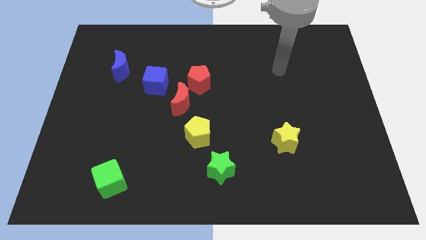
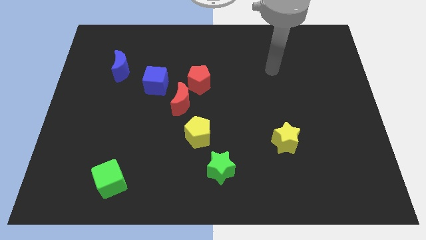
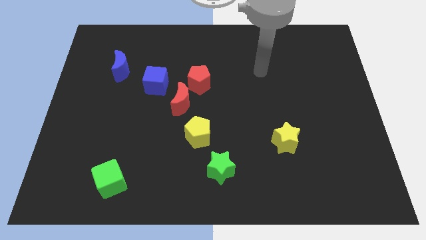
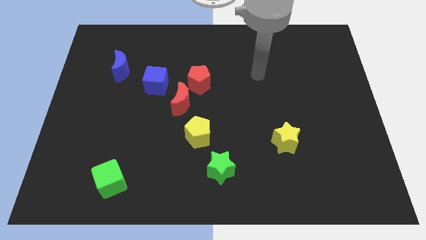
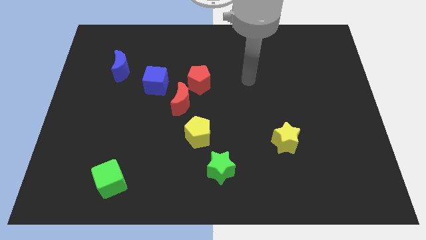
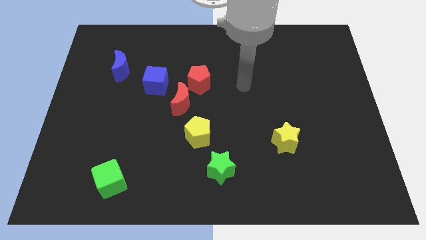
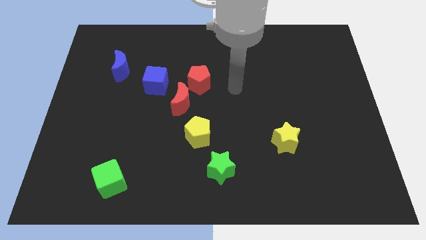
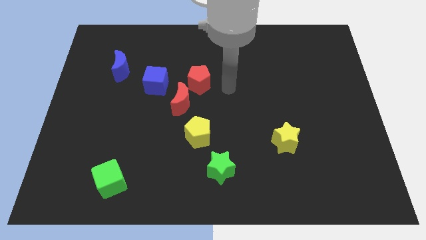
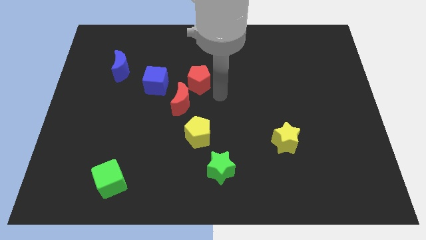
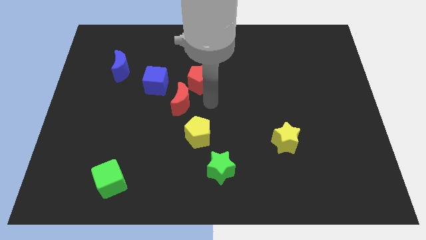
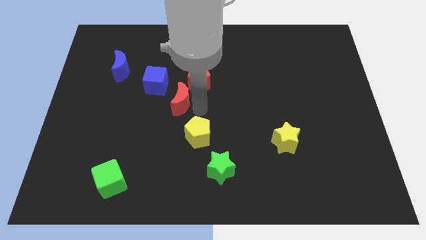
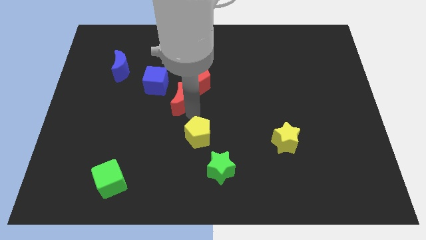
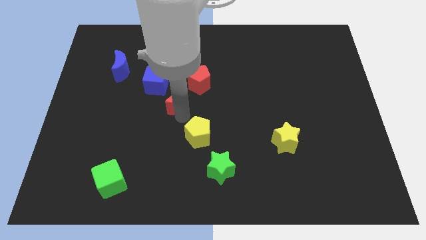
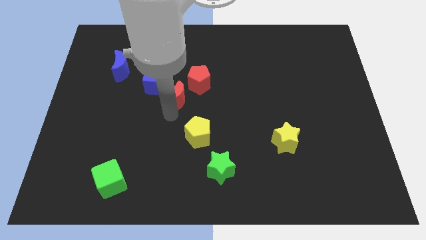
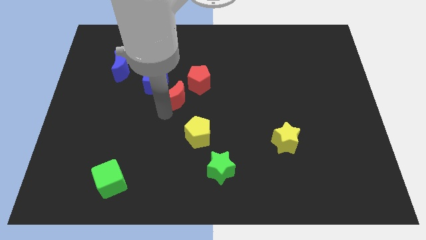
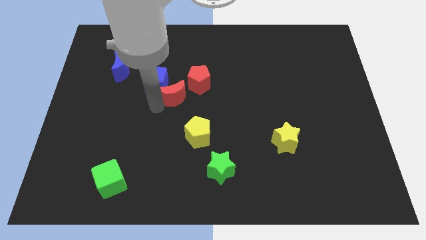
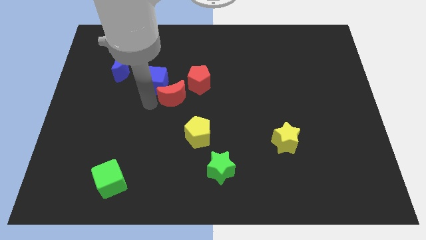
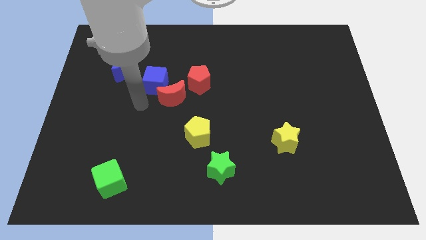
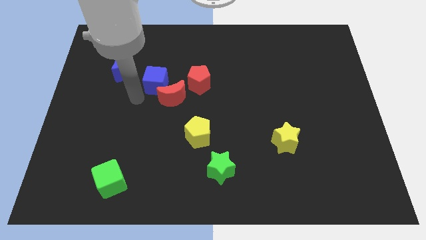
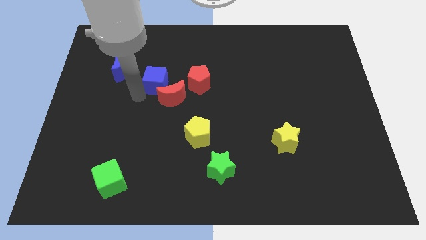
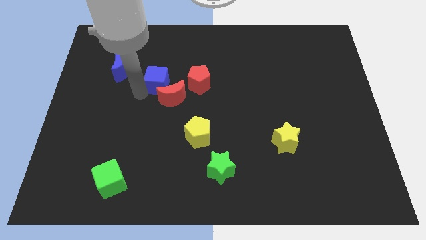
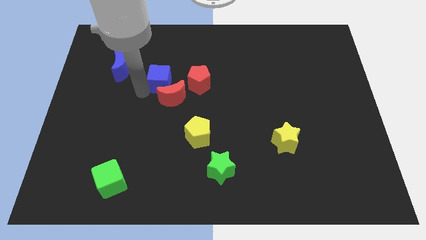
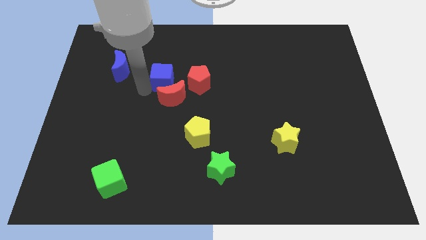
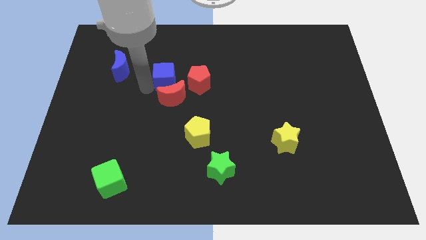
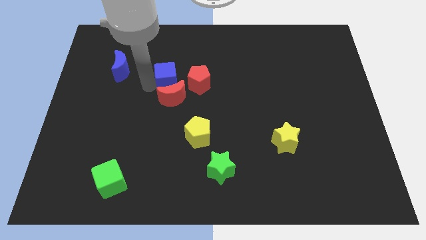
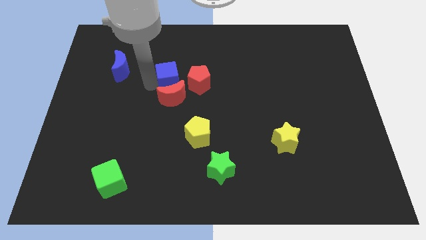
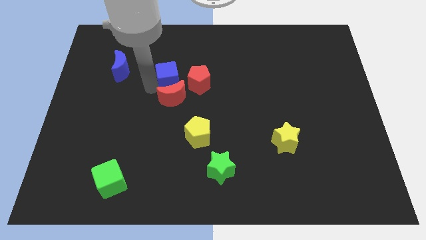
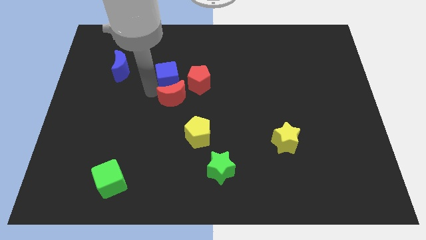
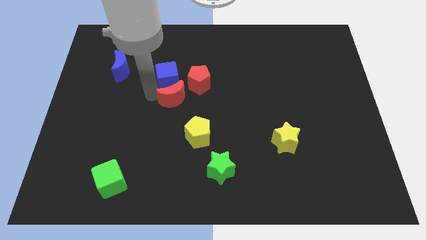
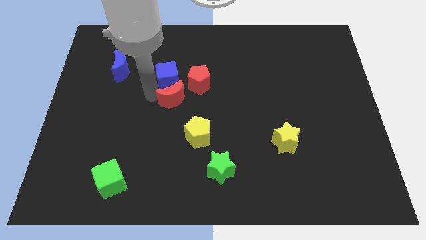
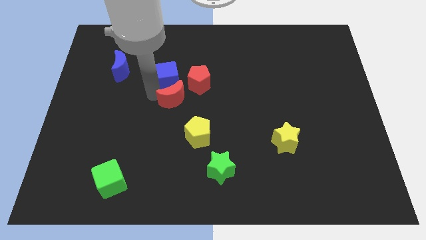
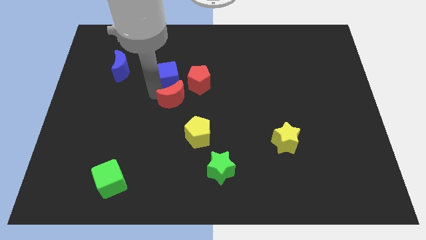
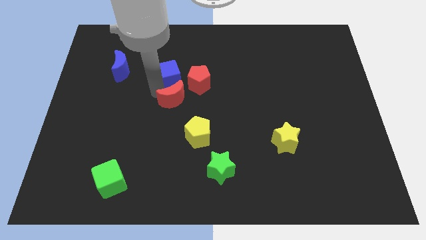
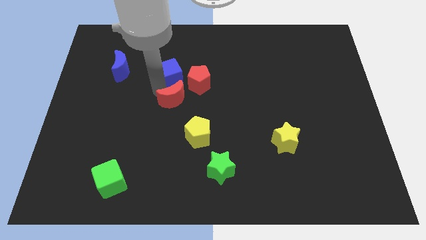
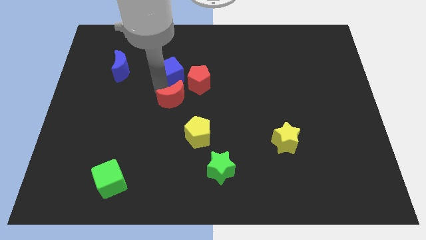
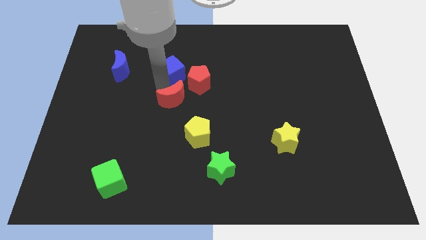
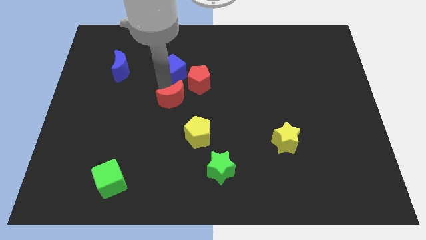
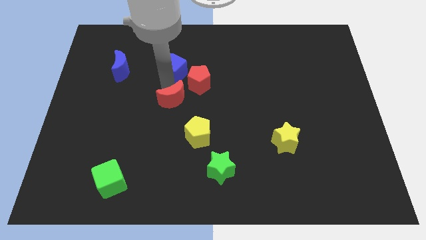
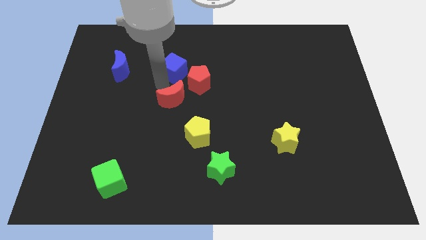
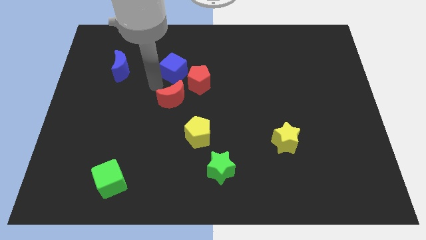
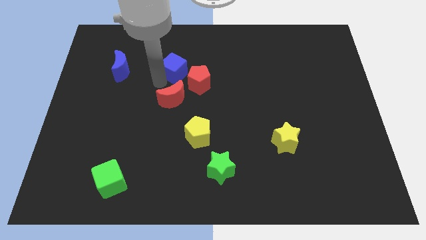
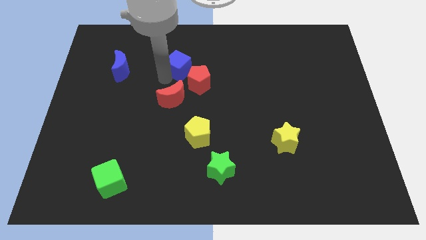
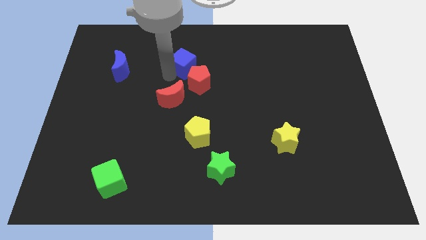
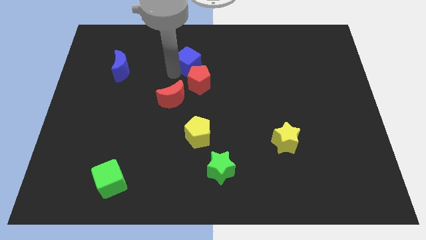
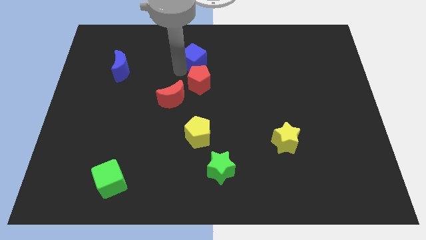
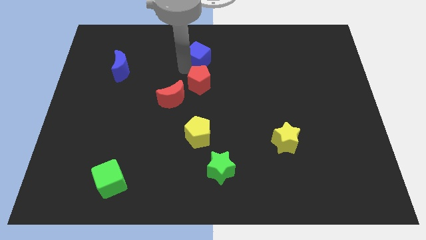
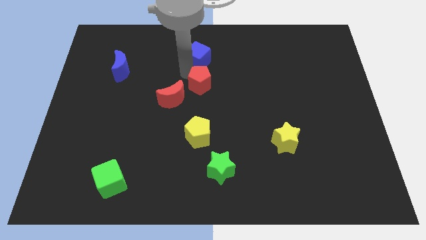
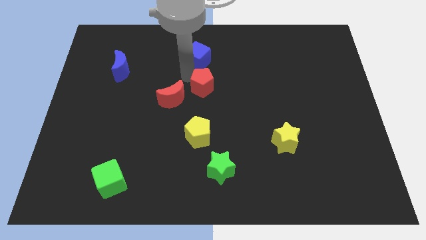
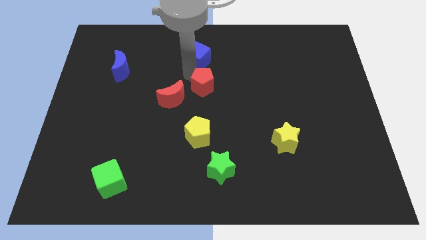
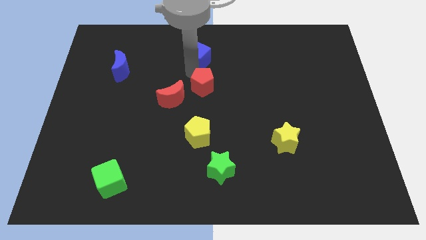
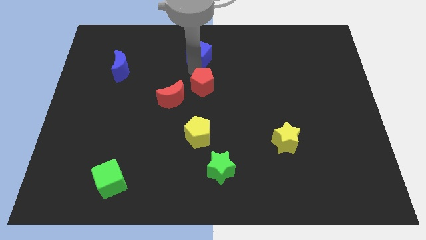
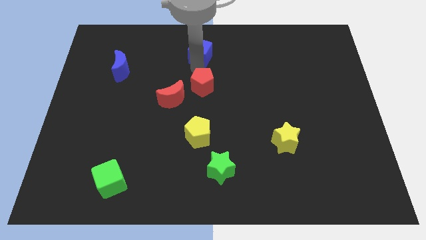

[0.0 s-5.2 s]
put the blue cube to the top

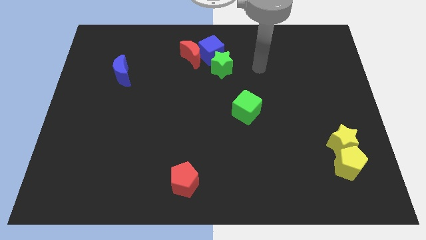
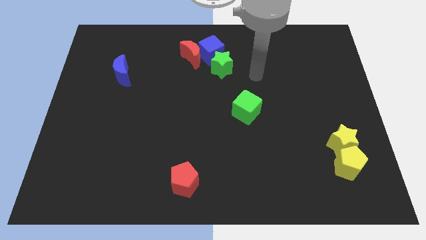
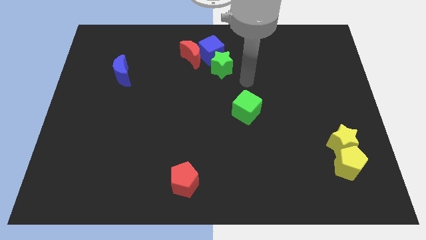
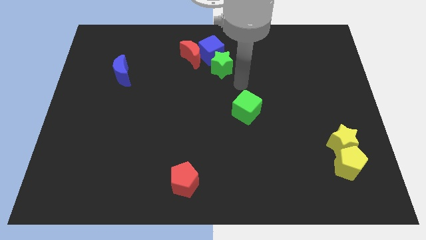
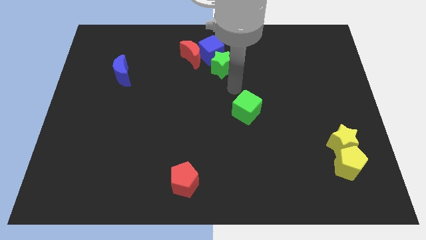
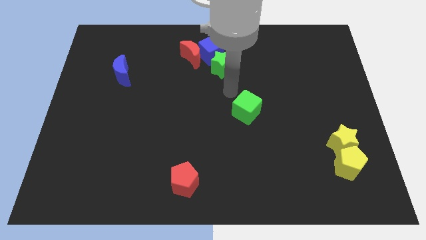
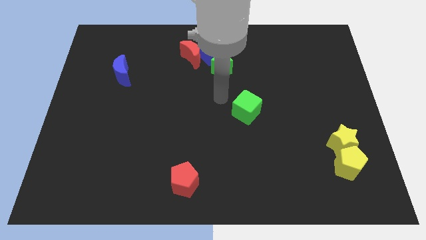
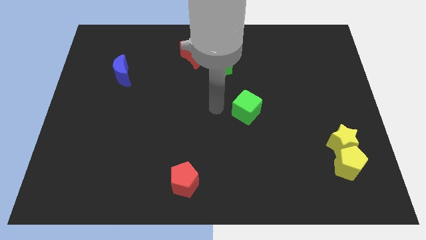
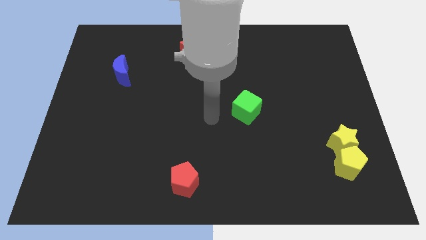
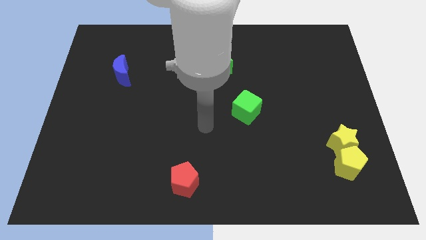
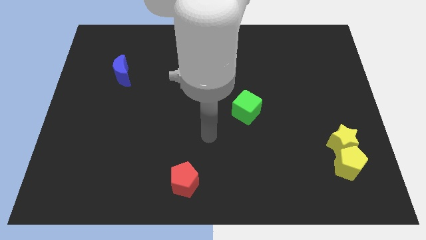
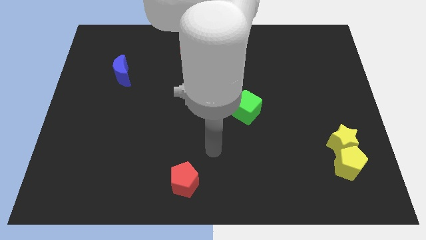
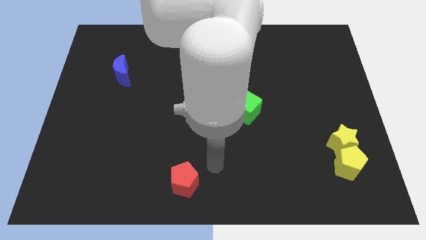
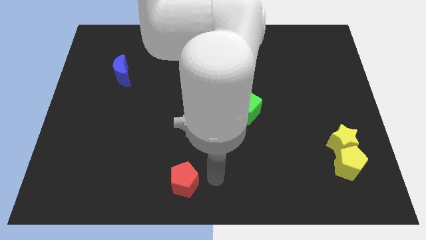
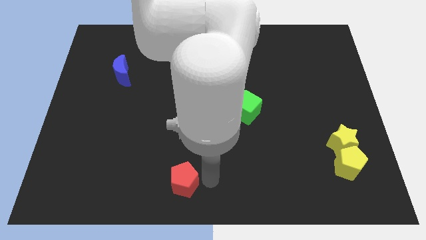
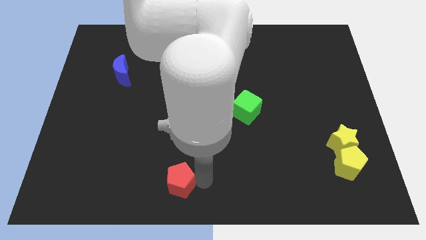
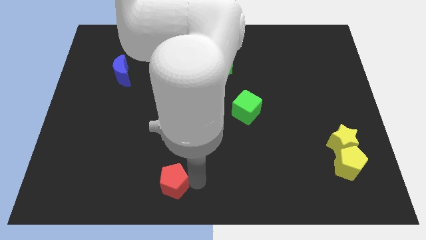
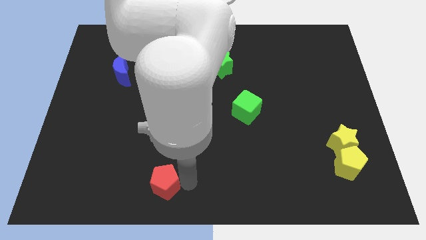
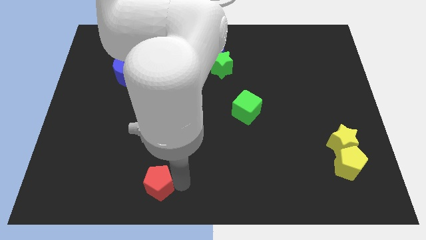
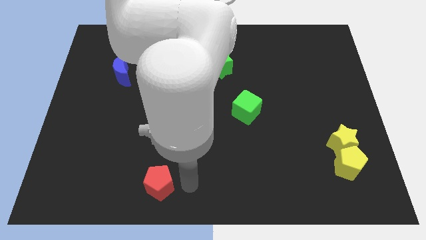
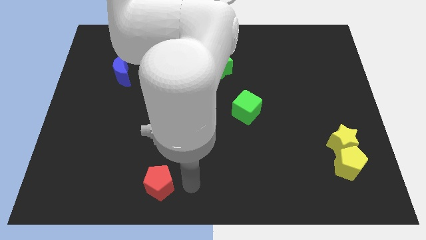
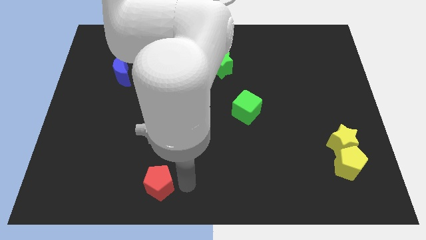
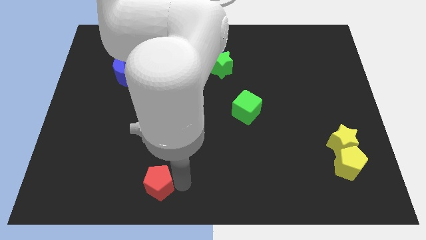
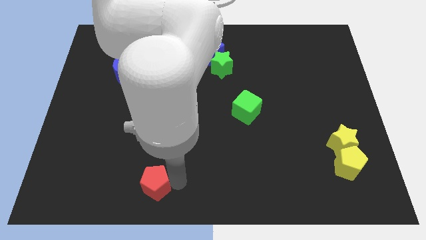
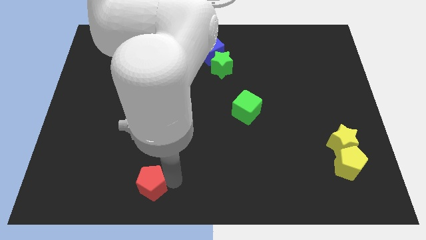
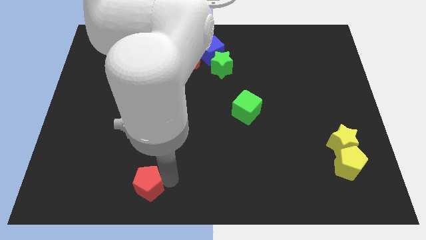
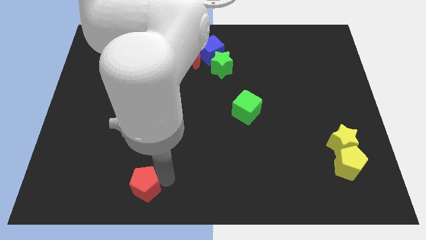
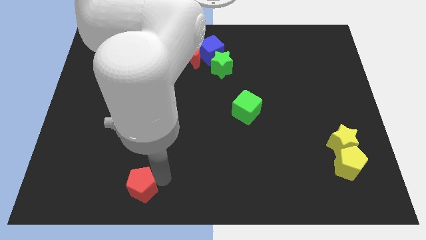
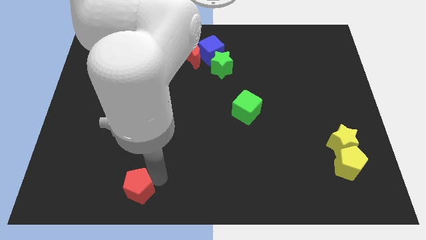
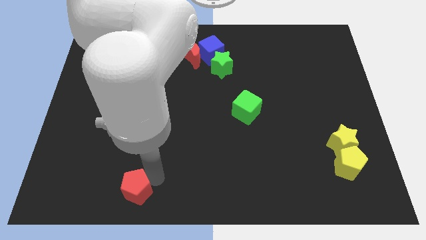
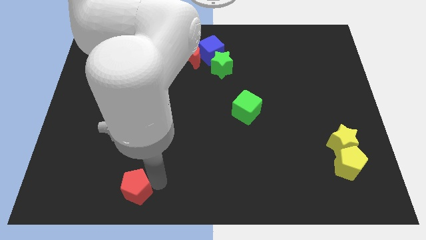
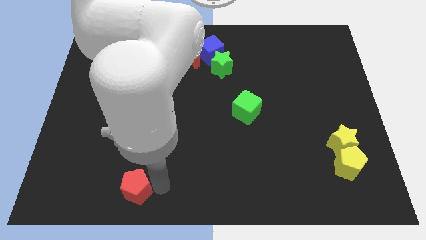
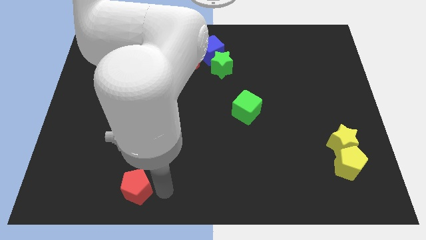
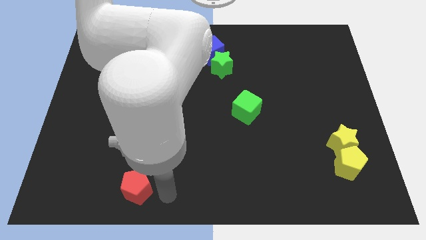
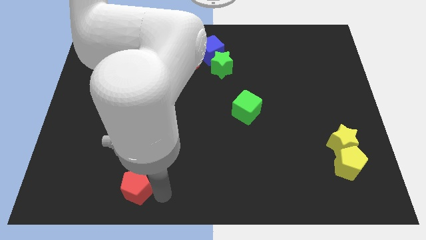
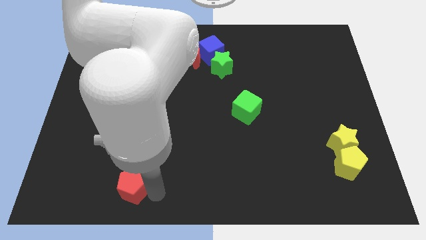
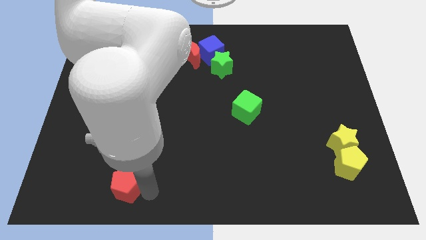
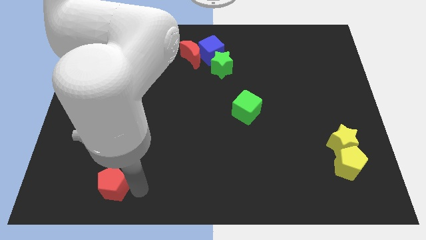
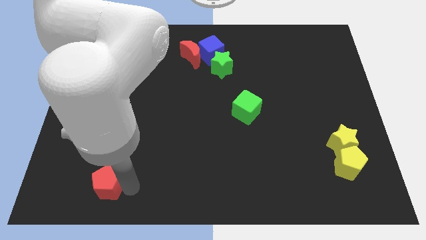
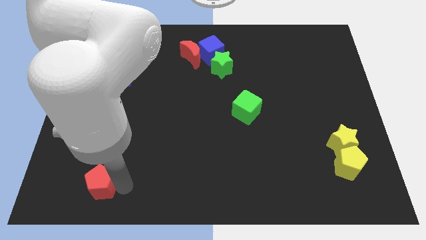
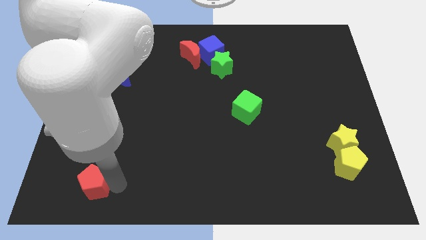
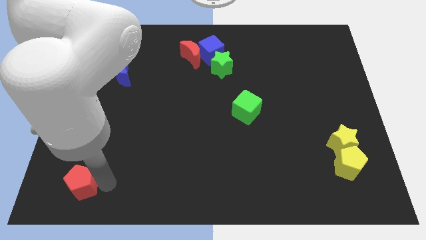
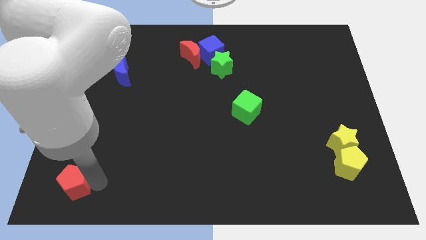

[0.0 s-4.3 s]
push the red pentagon to the bottom left corner
